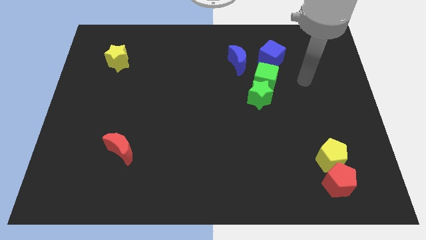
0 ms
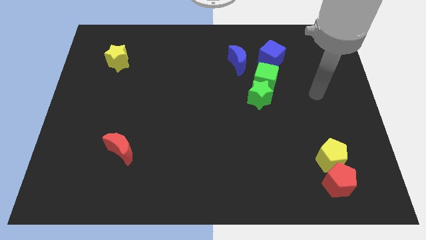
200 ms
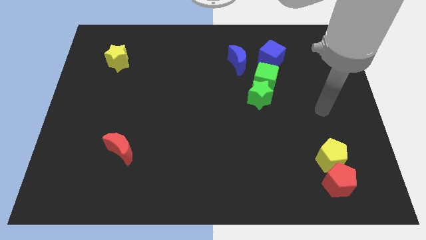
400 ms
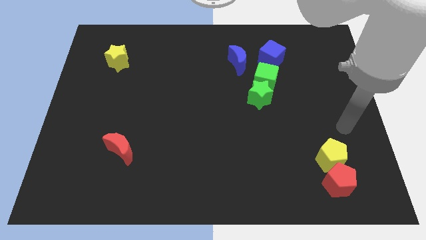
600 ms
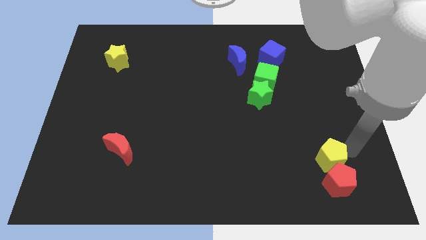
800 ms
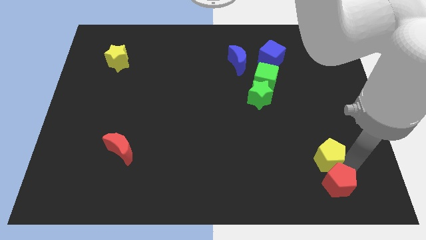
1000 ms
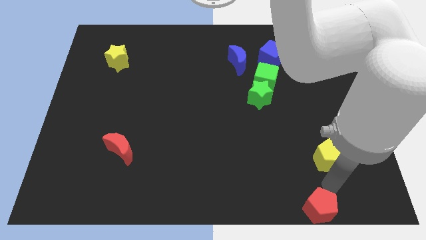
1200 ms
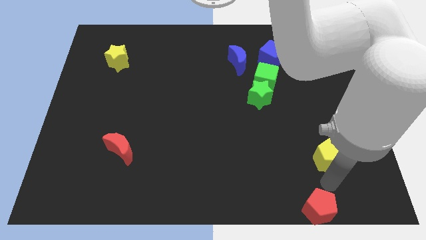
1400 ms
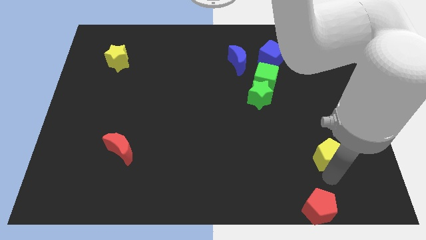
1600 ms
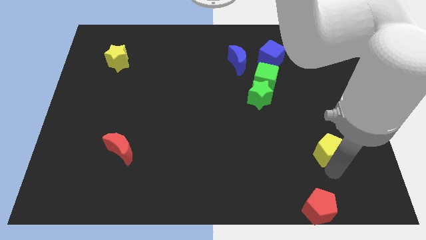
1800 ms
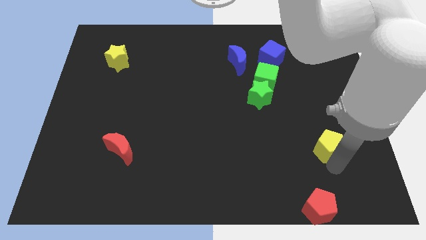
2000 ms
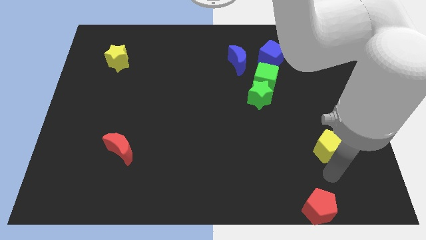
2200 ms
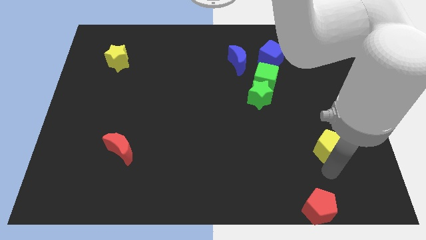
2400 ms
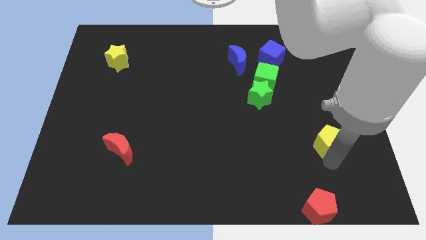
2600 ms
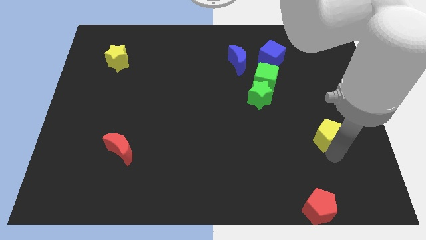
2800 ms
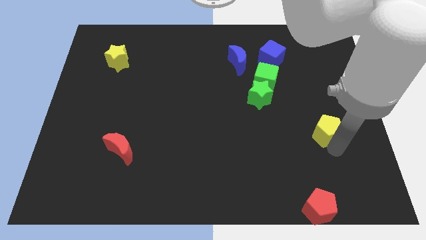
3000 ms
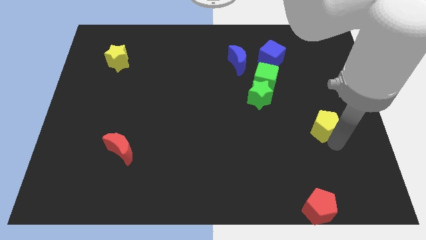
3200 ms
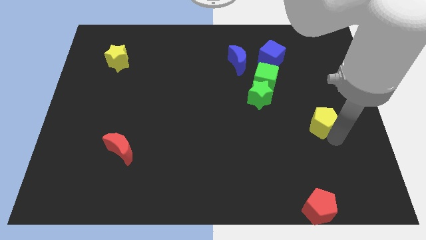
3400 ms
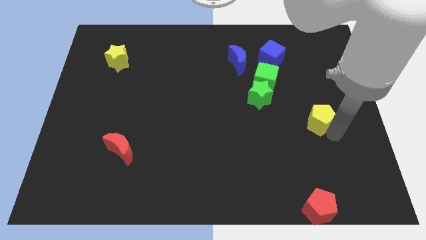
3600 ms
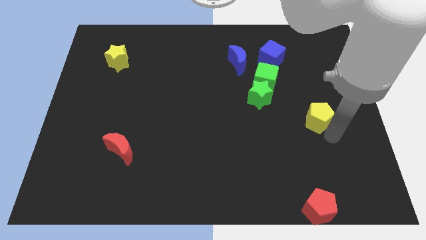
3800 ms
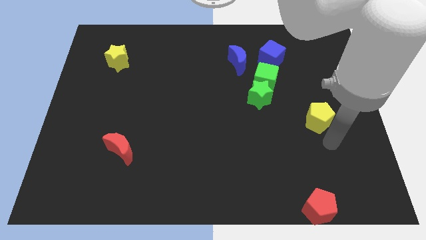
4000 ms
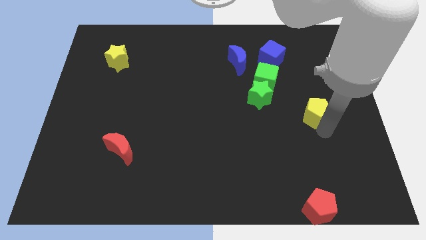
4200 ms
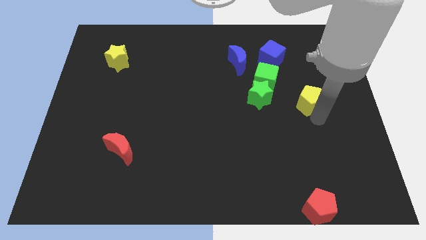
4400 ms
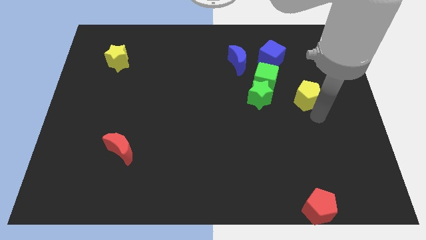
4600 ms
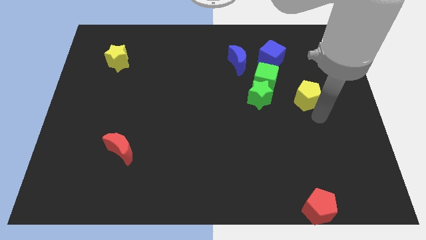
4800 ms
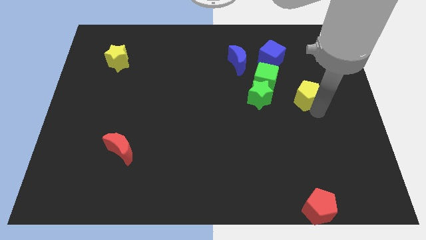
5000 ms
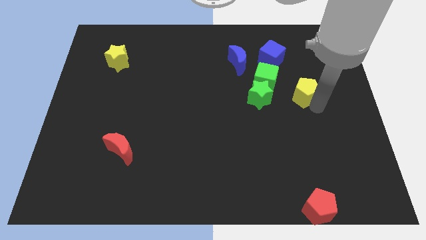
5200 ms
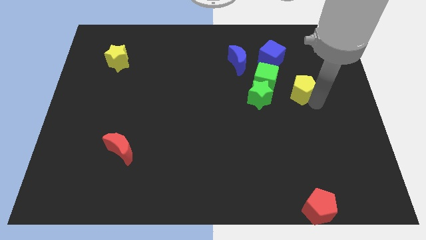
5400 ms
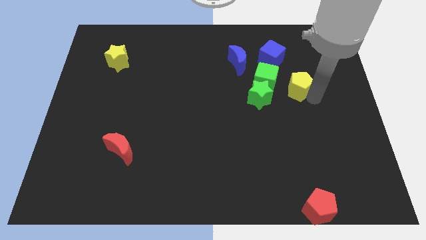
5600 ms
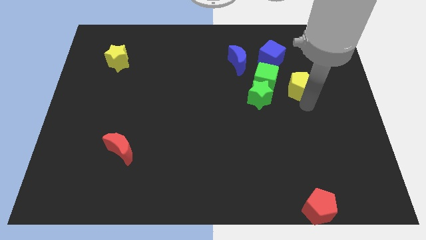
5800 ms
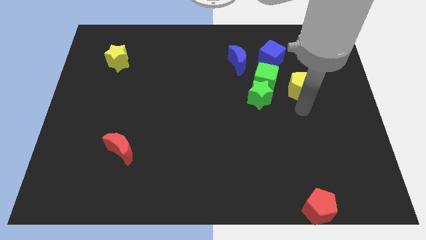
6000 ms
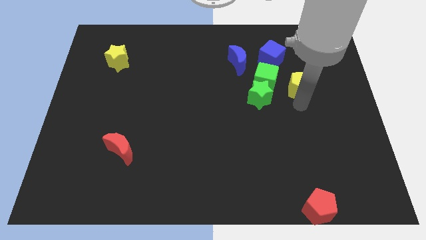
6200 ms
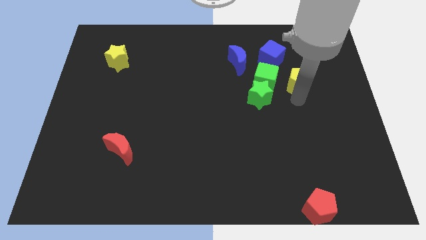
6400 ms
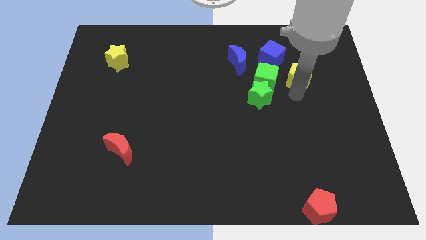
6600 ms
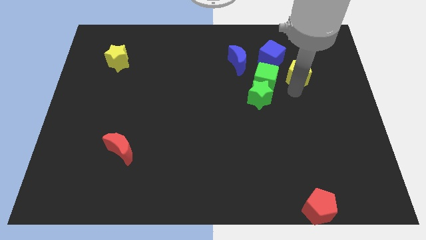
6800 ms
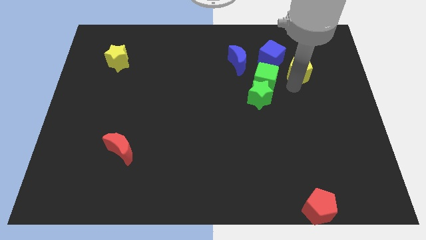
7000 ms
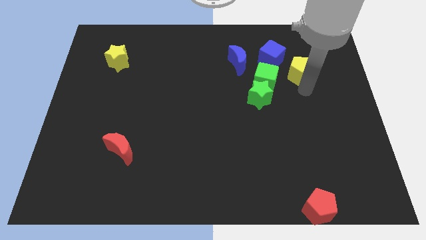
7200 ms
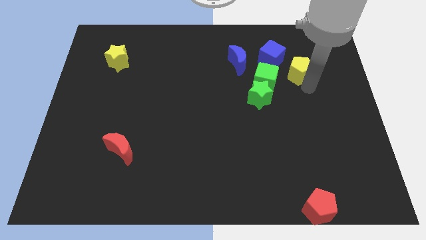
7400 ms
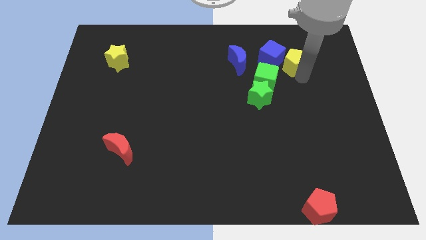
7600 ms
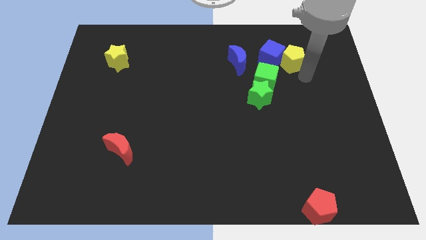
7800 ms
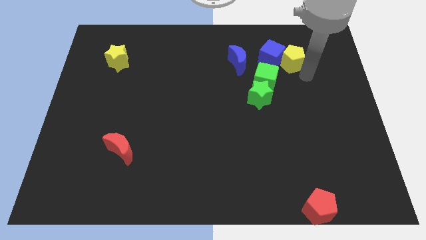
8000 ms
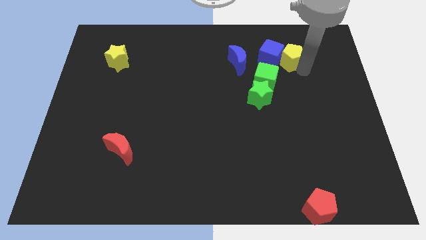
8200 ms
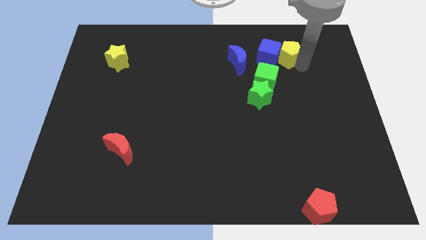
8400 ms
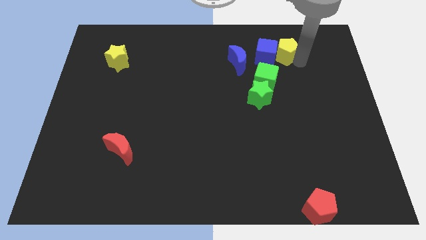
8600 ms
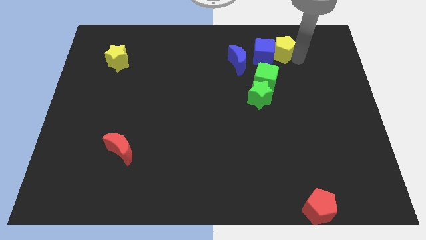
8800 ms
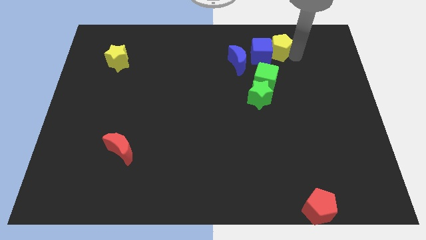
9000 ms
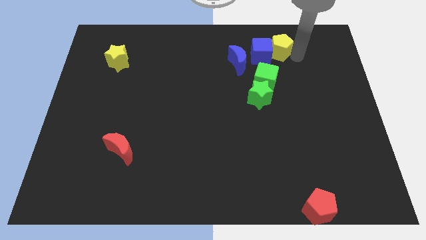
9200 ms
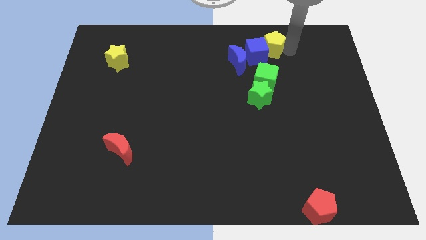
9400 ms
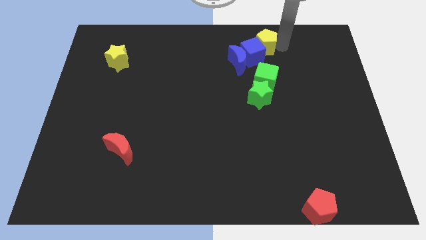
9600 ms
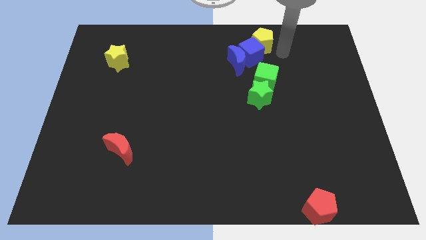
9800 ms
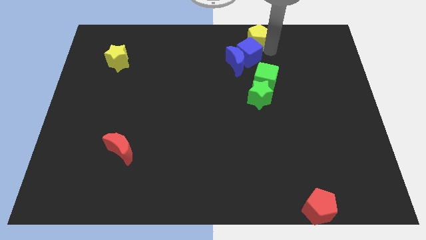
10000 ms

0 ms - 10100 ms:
move the yellow pentagon to the top

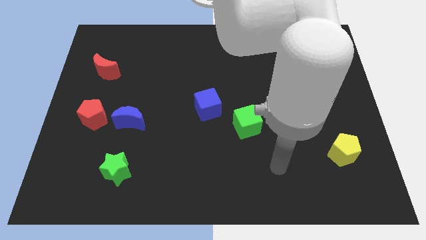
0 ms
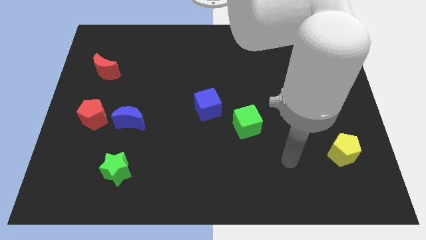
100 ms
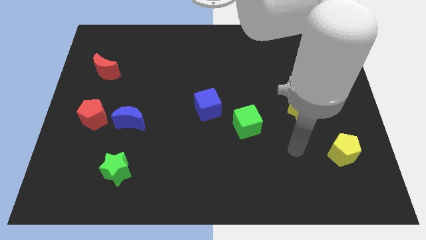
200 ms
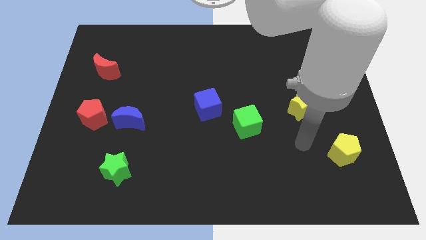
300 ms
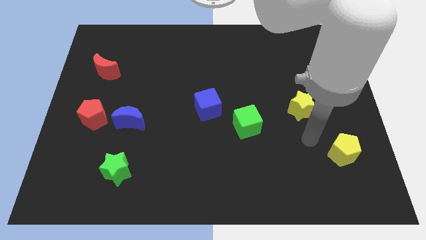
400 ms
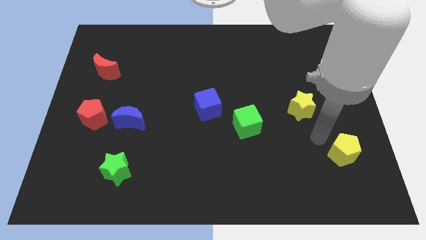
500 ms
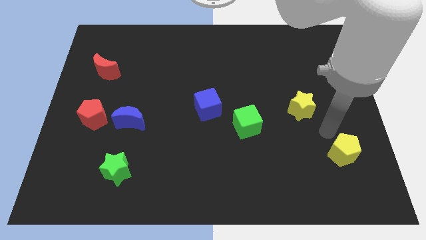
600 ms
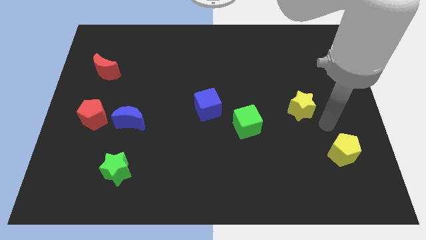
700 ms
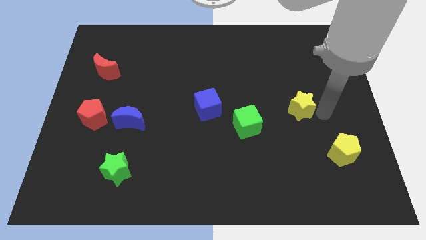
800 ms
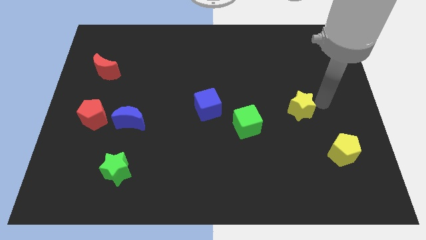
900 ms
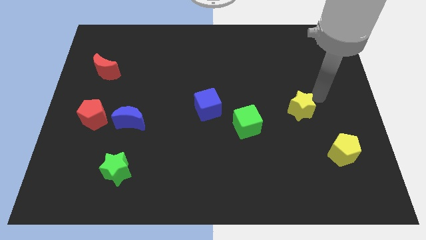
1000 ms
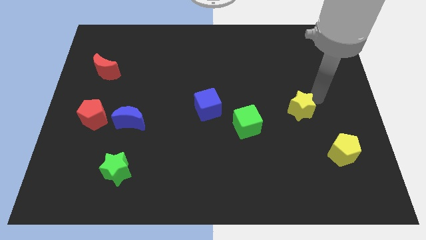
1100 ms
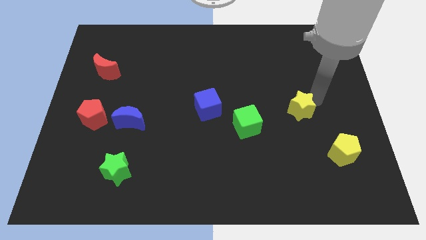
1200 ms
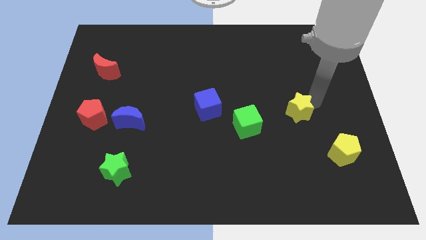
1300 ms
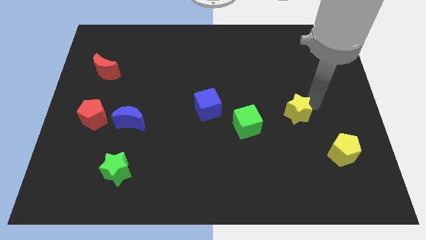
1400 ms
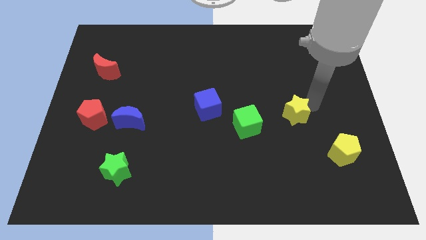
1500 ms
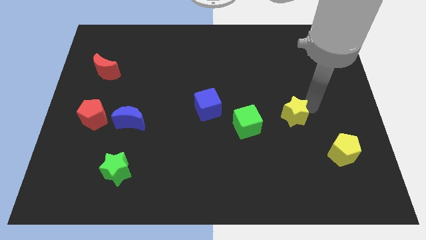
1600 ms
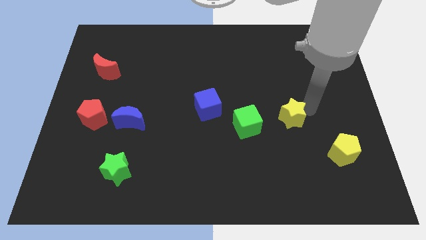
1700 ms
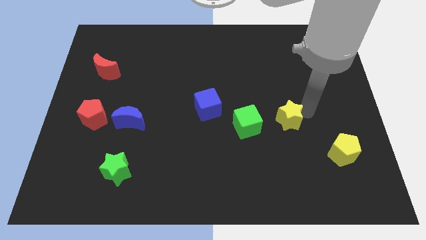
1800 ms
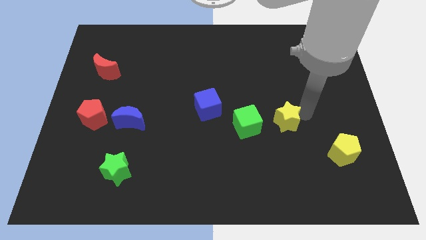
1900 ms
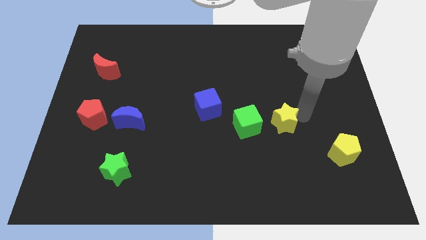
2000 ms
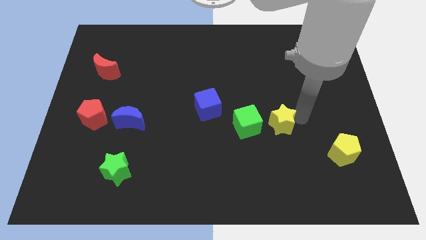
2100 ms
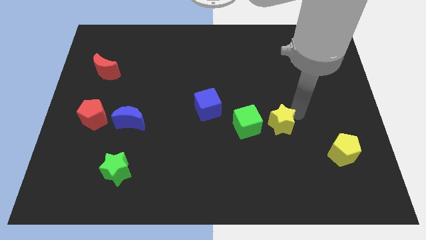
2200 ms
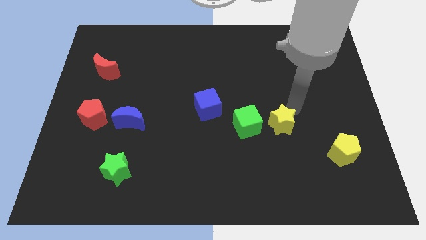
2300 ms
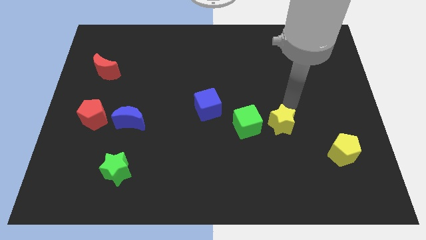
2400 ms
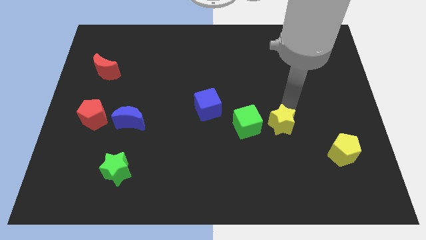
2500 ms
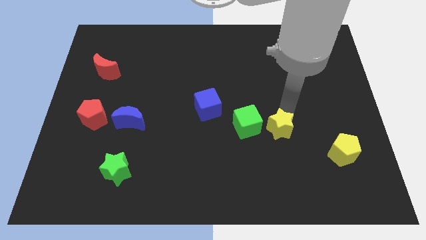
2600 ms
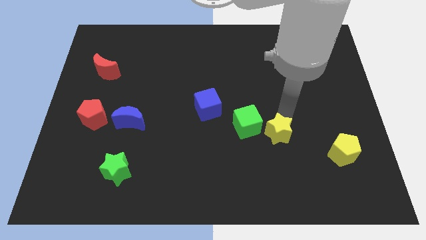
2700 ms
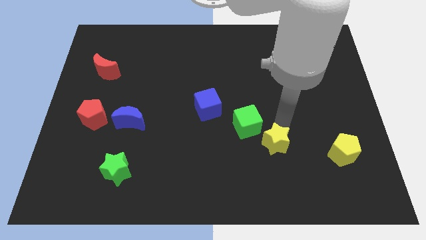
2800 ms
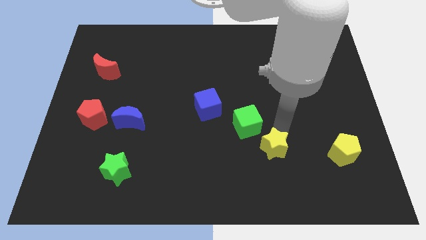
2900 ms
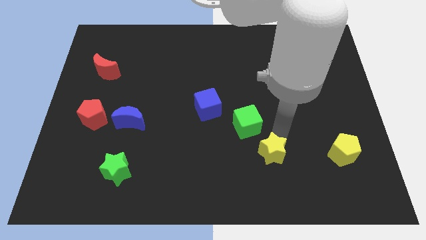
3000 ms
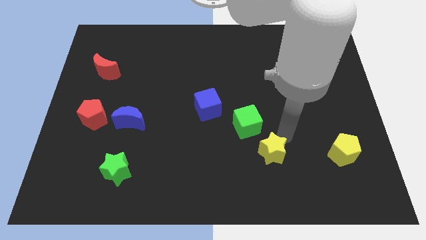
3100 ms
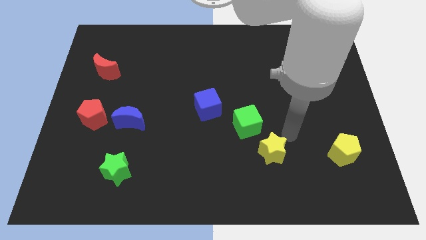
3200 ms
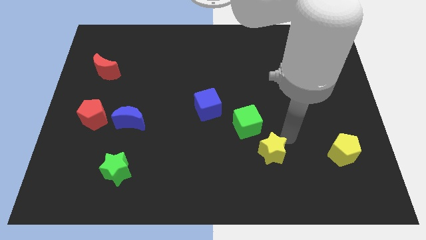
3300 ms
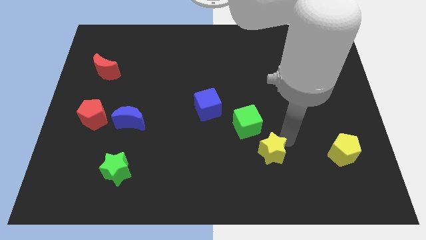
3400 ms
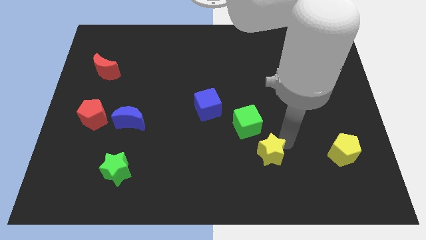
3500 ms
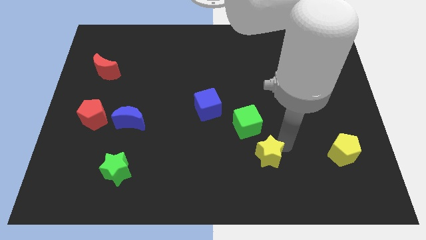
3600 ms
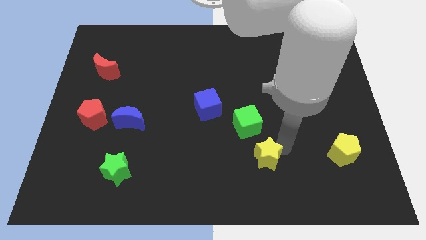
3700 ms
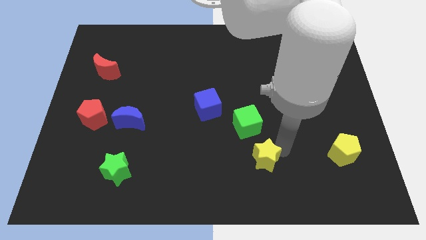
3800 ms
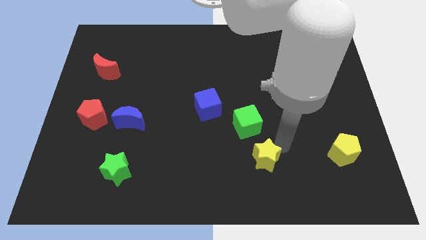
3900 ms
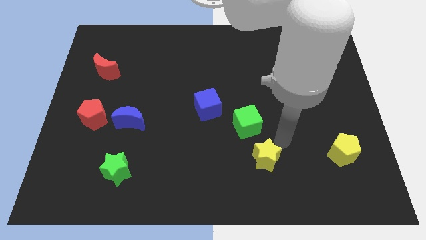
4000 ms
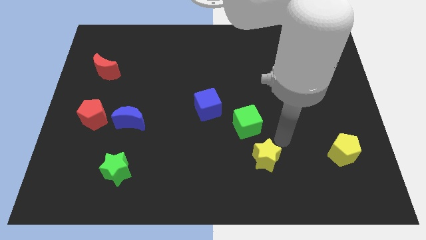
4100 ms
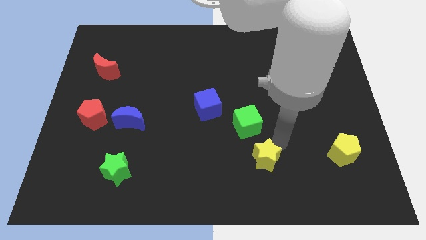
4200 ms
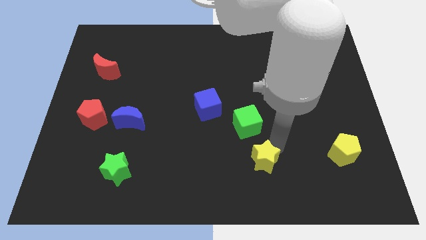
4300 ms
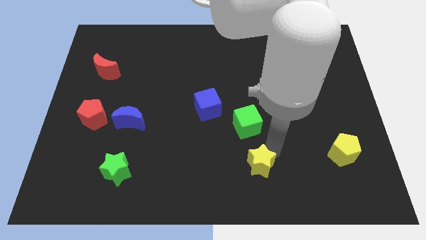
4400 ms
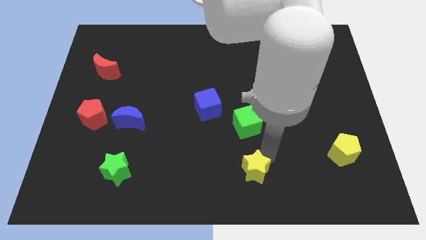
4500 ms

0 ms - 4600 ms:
push the yellow star to the bottom
